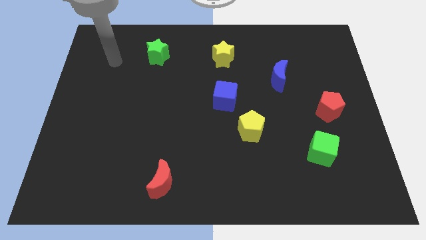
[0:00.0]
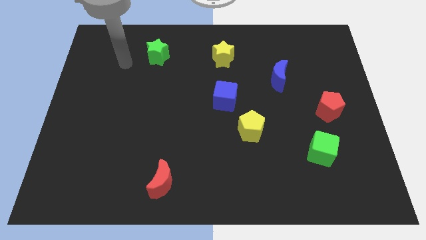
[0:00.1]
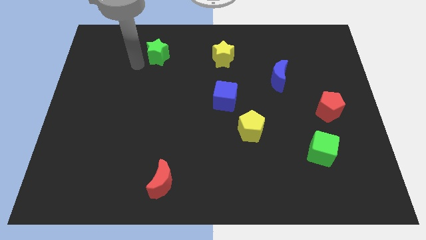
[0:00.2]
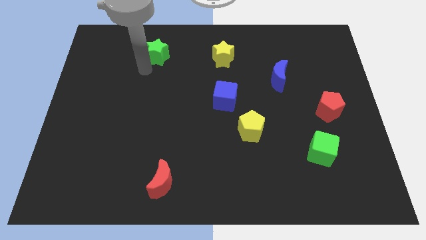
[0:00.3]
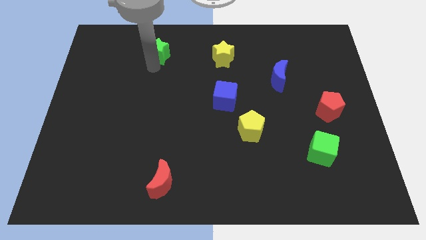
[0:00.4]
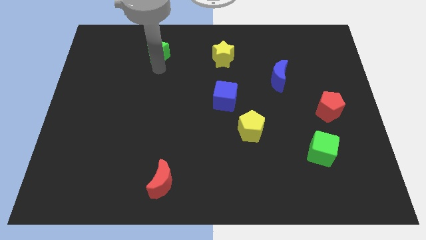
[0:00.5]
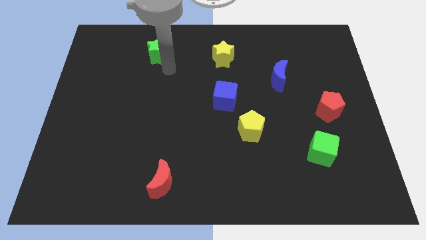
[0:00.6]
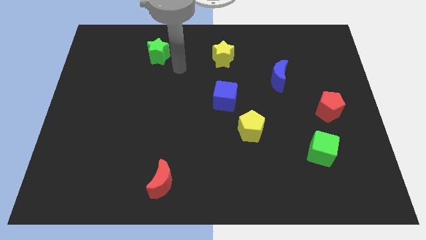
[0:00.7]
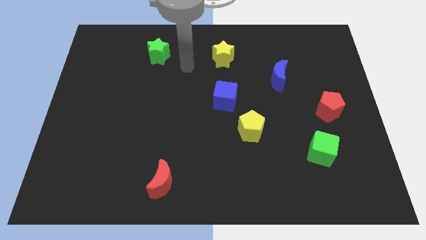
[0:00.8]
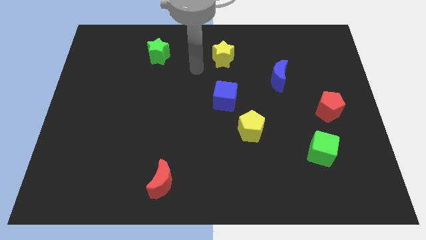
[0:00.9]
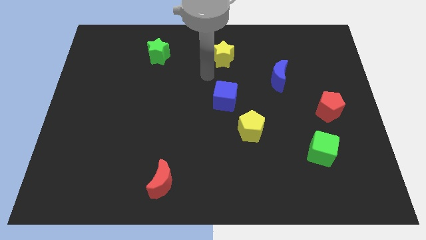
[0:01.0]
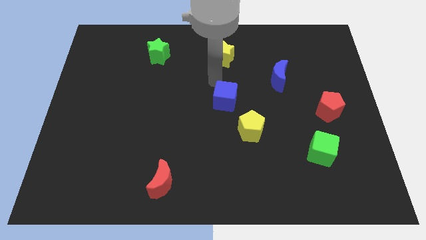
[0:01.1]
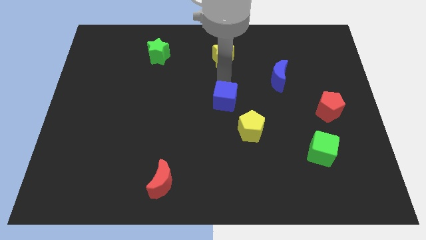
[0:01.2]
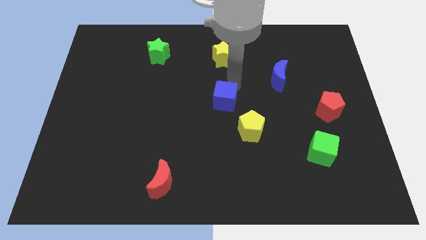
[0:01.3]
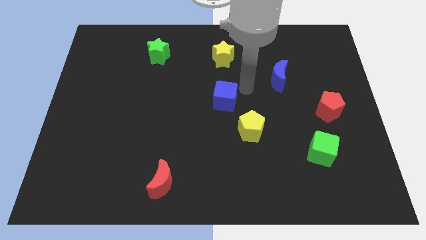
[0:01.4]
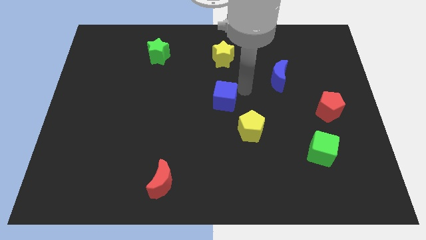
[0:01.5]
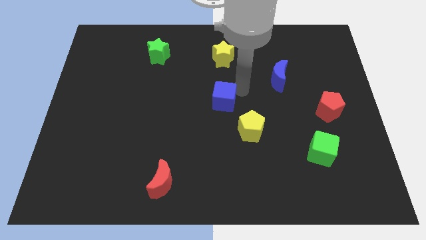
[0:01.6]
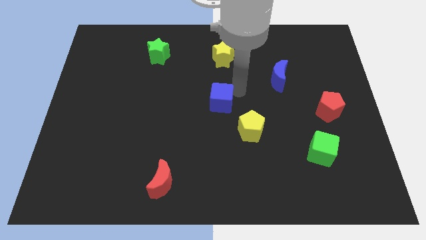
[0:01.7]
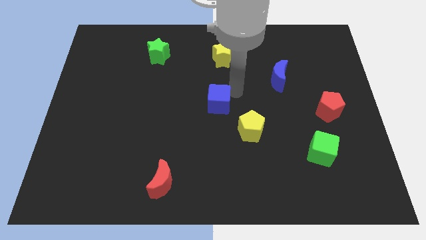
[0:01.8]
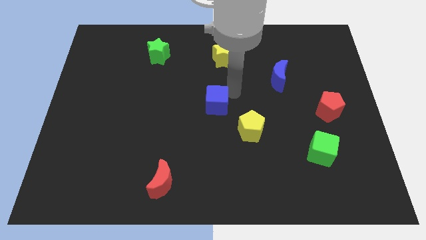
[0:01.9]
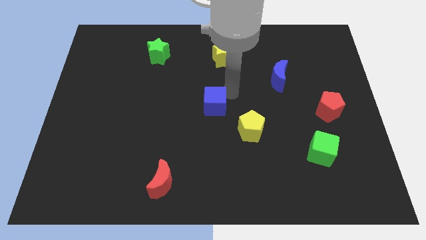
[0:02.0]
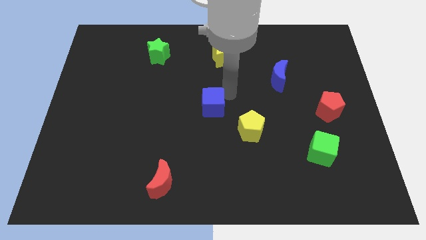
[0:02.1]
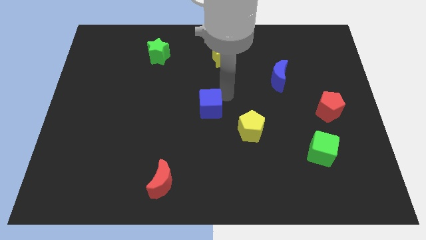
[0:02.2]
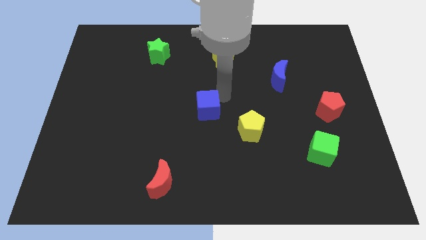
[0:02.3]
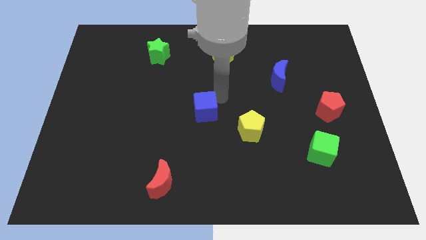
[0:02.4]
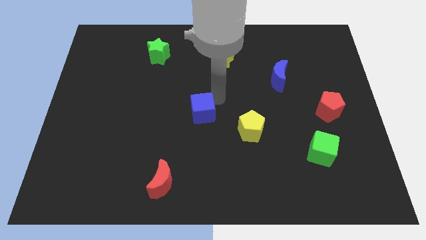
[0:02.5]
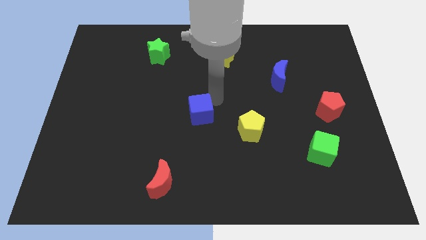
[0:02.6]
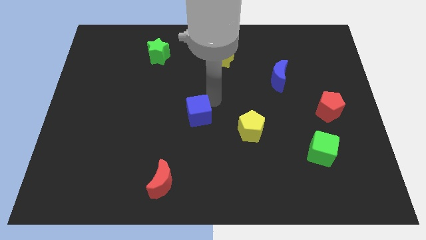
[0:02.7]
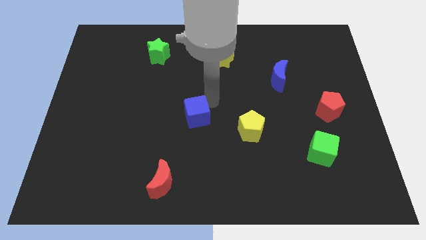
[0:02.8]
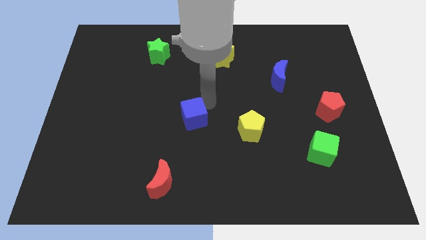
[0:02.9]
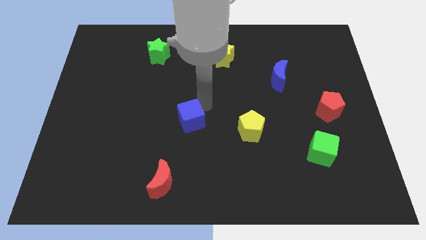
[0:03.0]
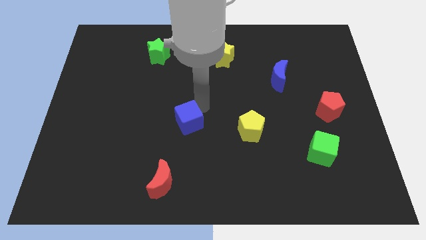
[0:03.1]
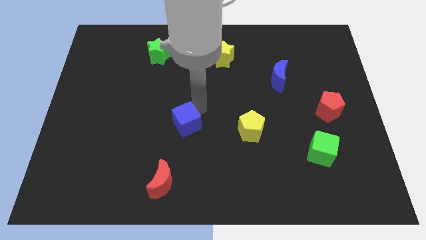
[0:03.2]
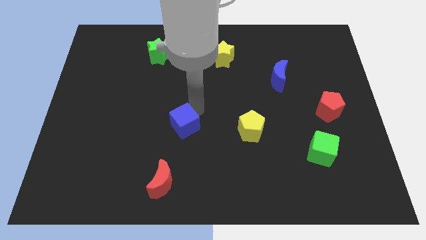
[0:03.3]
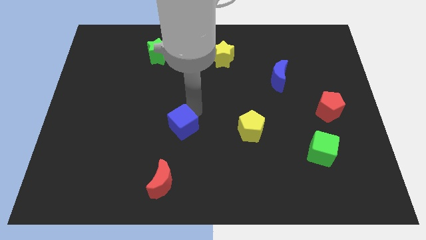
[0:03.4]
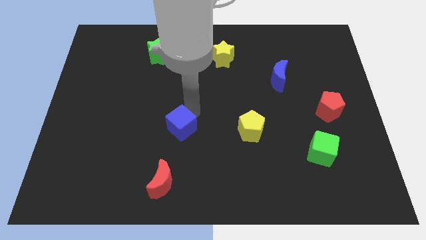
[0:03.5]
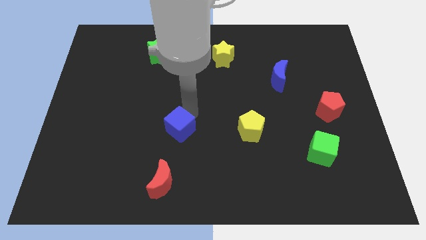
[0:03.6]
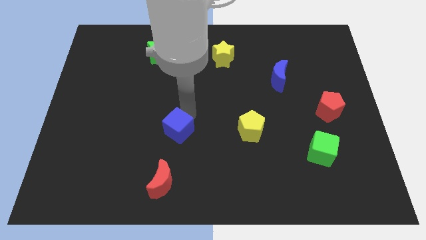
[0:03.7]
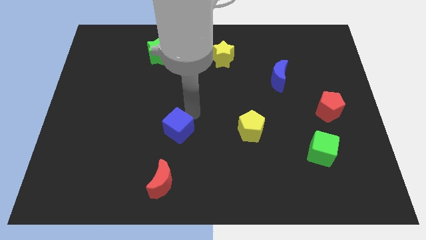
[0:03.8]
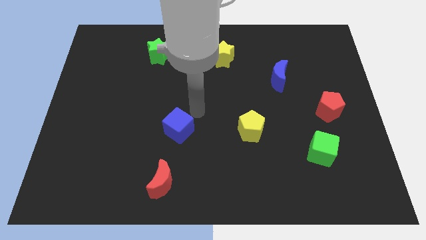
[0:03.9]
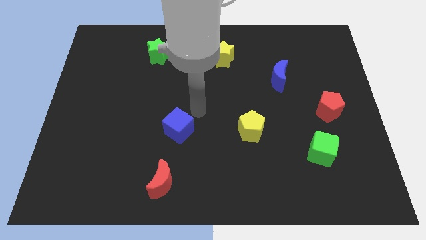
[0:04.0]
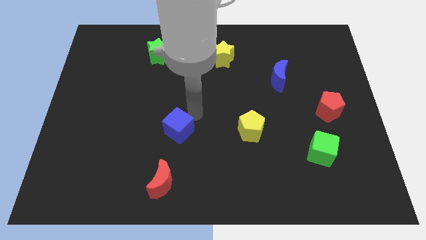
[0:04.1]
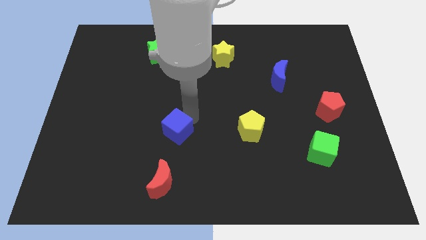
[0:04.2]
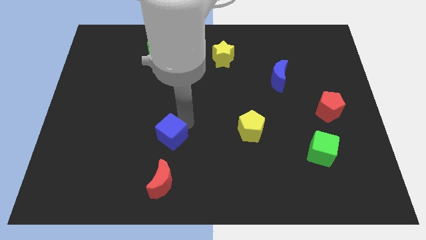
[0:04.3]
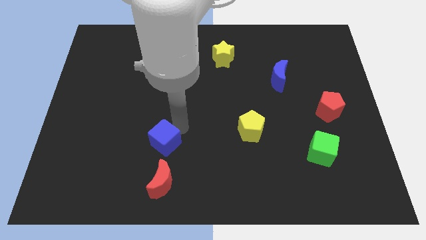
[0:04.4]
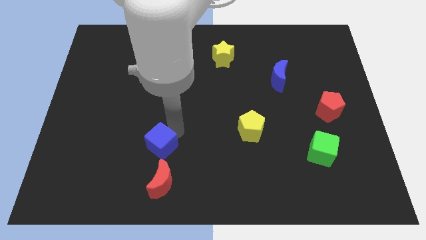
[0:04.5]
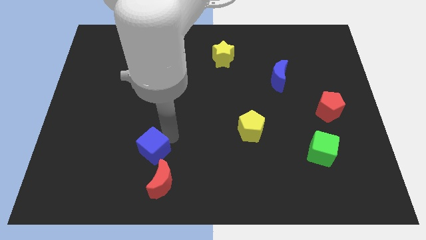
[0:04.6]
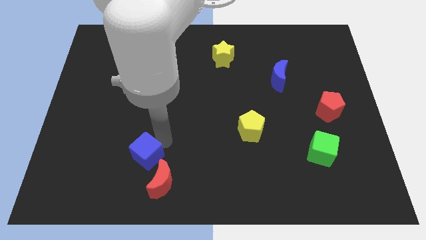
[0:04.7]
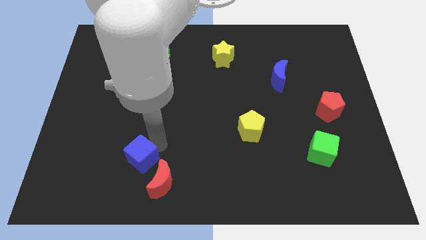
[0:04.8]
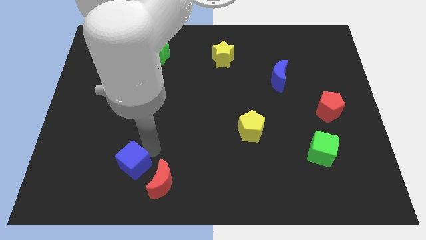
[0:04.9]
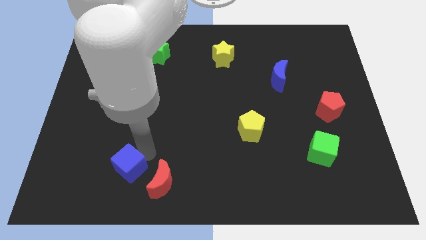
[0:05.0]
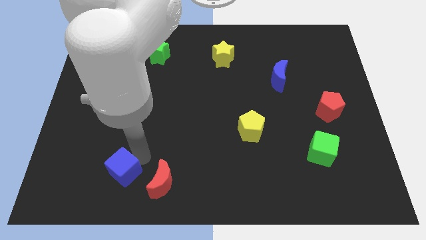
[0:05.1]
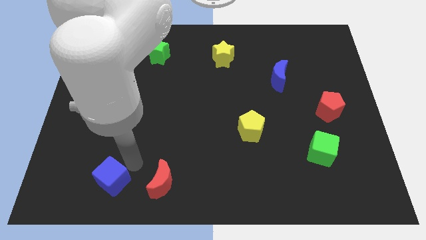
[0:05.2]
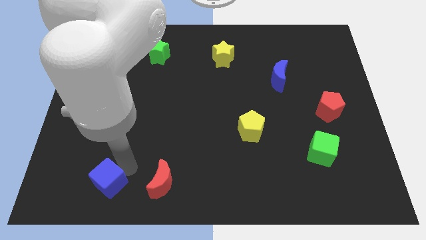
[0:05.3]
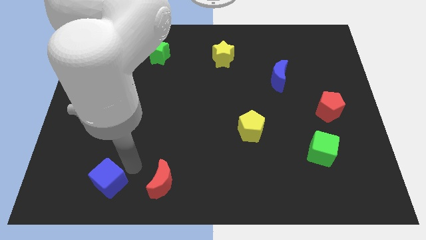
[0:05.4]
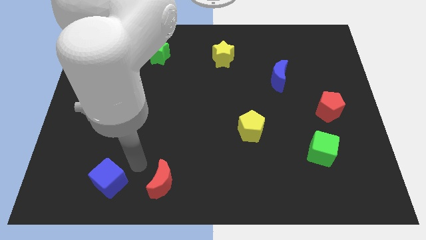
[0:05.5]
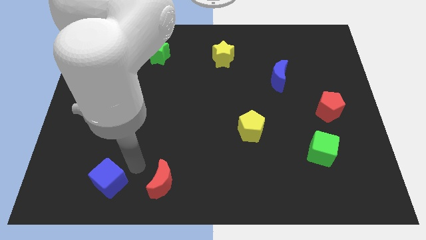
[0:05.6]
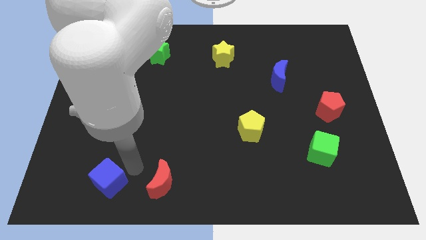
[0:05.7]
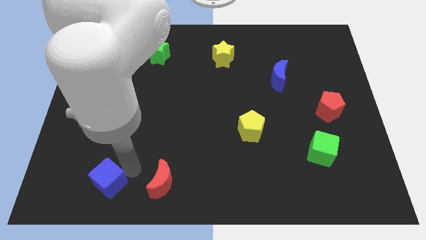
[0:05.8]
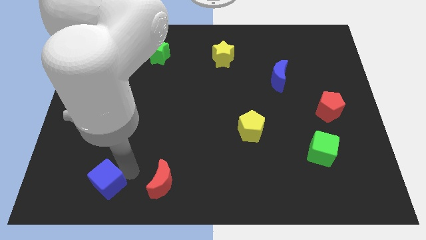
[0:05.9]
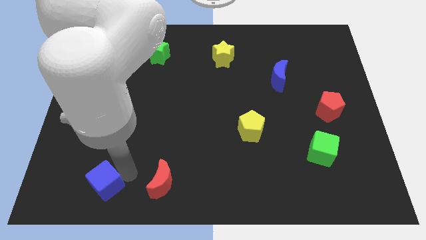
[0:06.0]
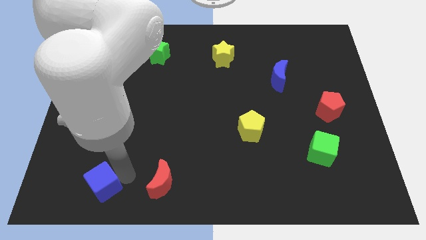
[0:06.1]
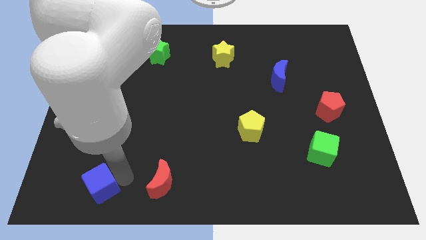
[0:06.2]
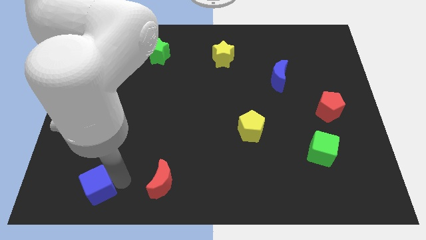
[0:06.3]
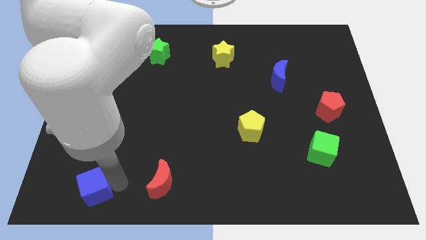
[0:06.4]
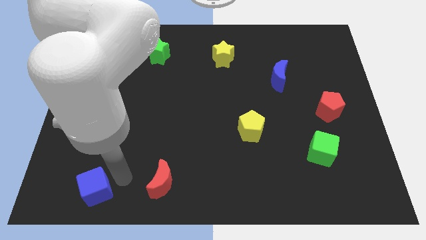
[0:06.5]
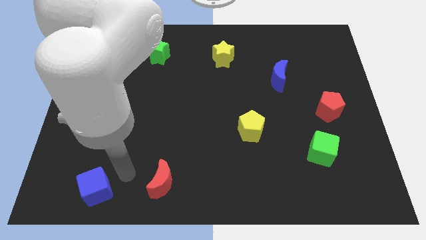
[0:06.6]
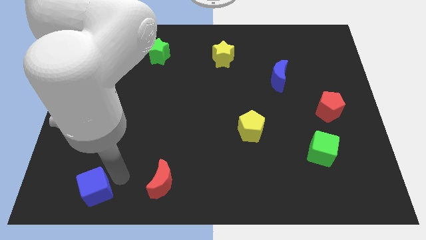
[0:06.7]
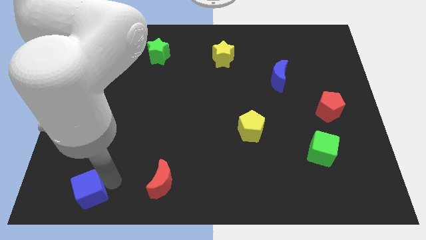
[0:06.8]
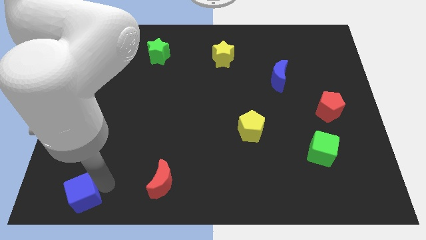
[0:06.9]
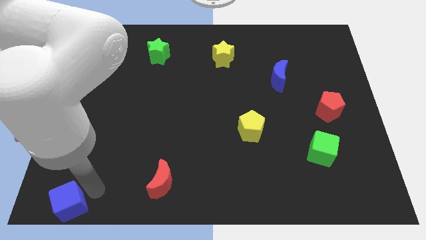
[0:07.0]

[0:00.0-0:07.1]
move the blue cube to the lower left corner

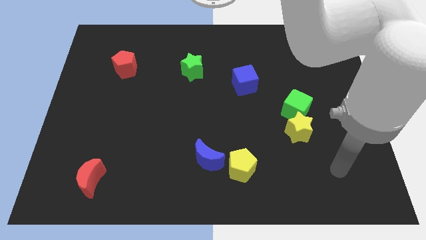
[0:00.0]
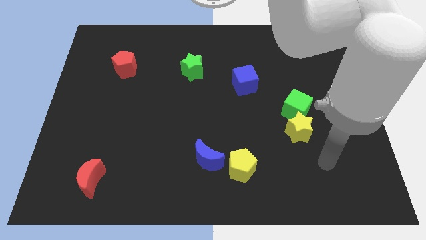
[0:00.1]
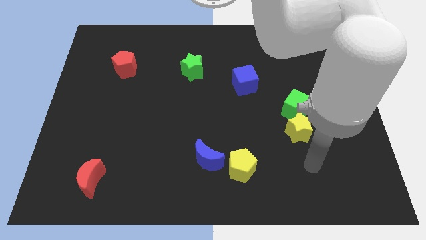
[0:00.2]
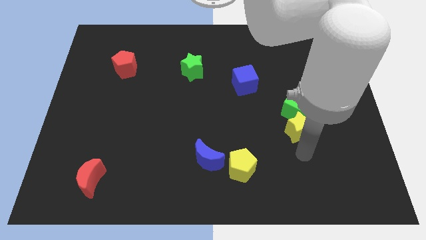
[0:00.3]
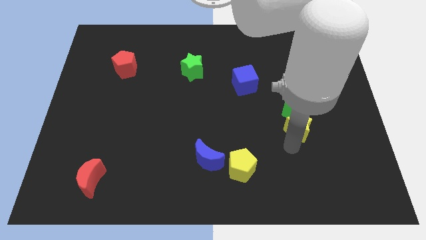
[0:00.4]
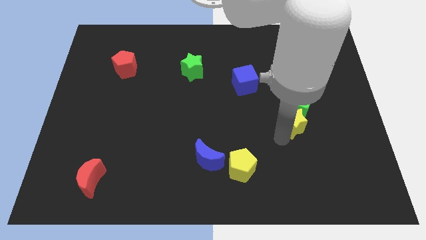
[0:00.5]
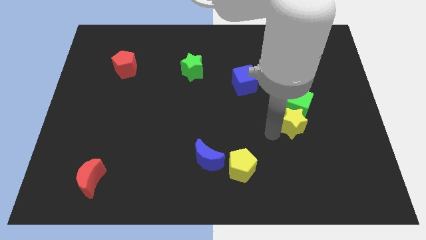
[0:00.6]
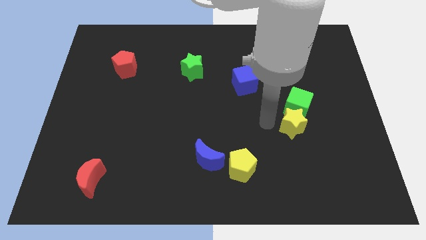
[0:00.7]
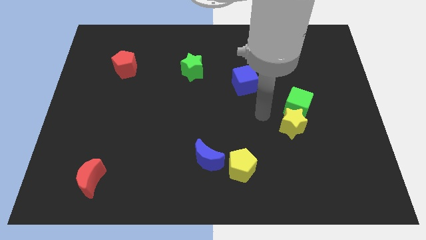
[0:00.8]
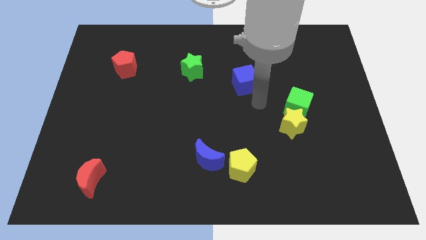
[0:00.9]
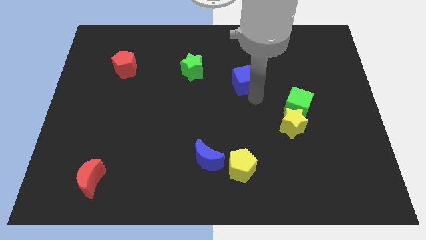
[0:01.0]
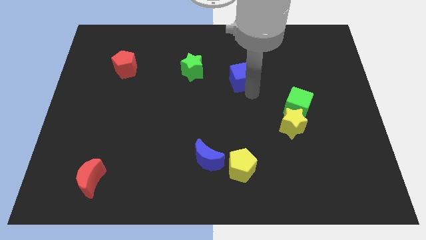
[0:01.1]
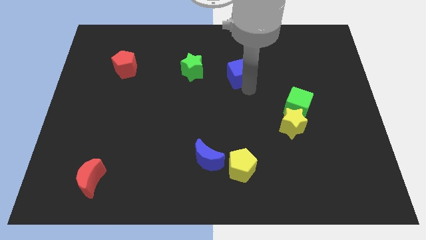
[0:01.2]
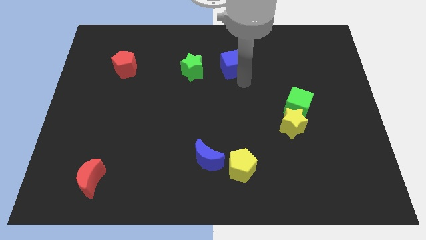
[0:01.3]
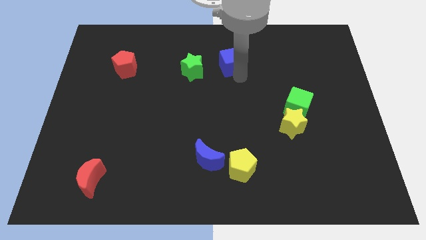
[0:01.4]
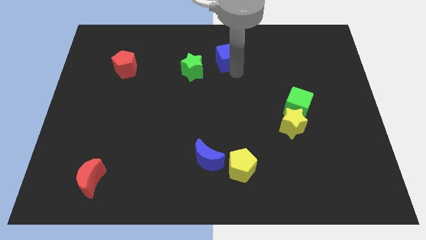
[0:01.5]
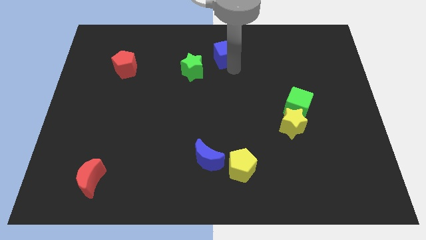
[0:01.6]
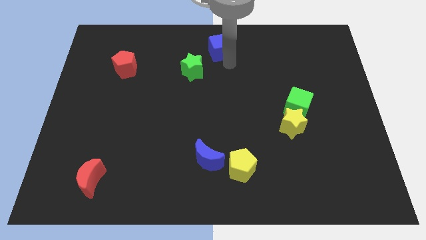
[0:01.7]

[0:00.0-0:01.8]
push the blue cube to the towards your base
